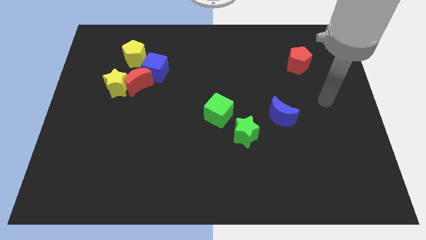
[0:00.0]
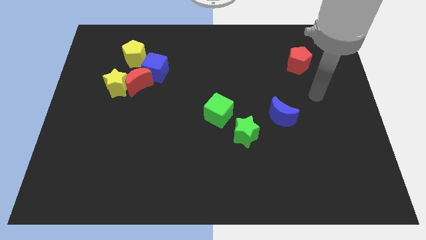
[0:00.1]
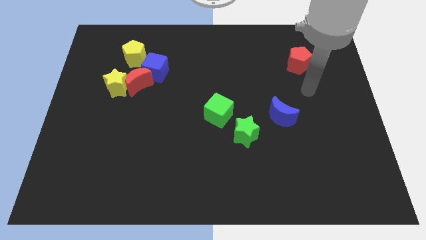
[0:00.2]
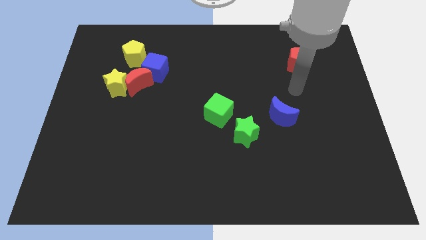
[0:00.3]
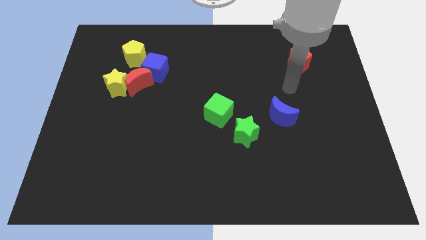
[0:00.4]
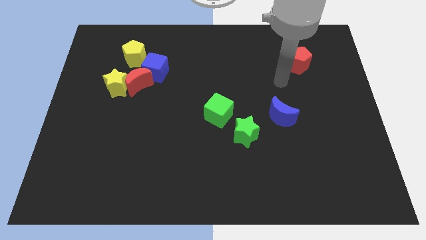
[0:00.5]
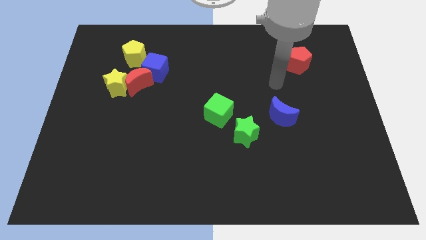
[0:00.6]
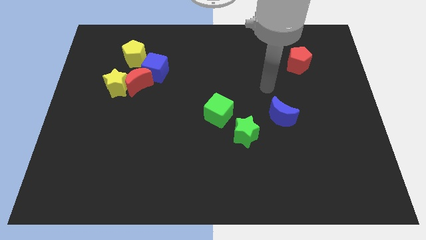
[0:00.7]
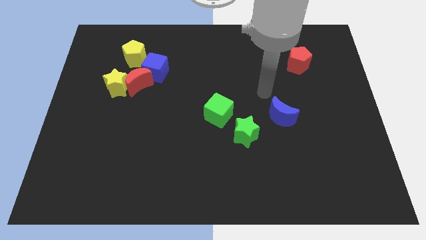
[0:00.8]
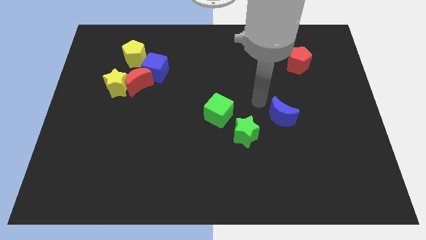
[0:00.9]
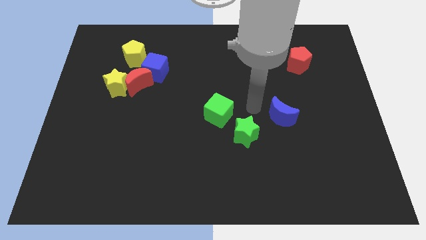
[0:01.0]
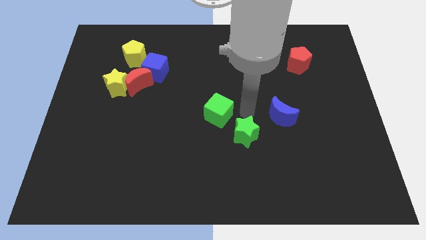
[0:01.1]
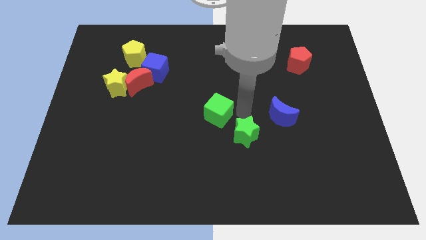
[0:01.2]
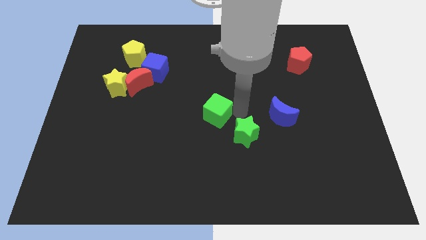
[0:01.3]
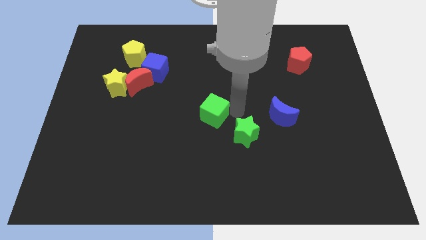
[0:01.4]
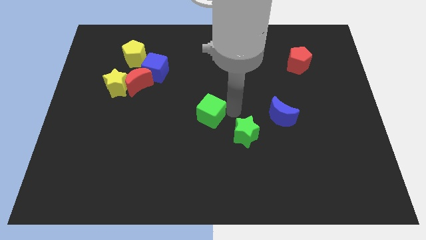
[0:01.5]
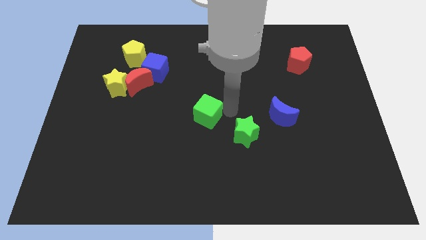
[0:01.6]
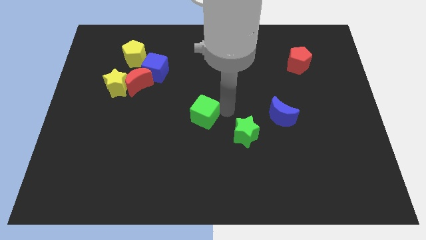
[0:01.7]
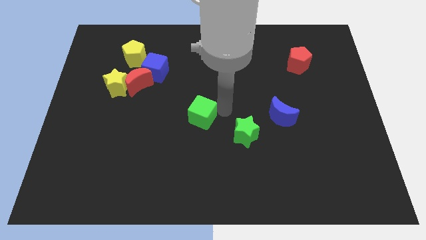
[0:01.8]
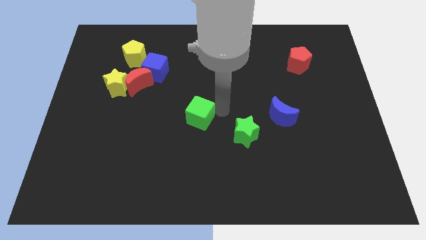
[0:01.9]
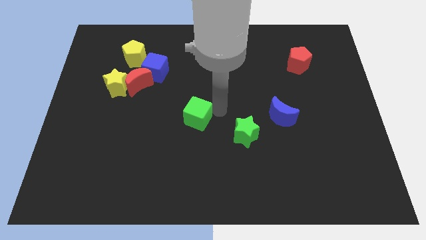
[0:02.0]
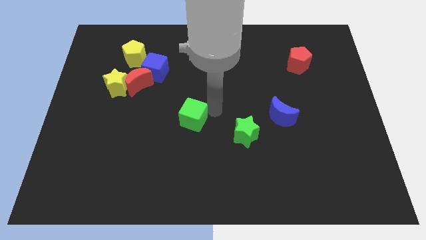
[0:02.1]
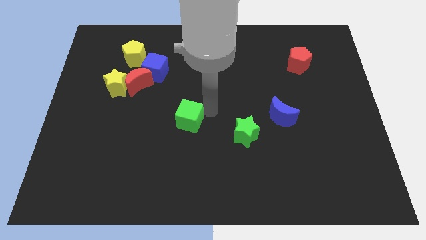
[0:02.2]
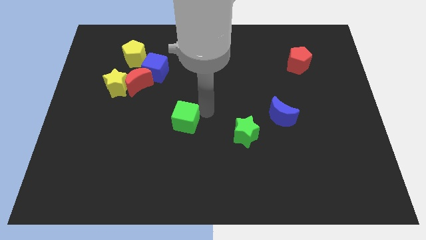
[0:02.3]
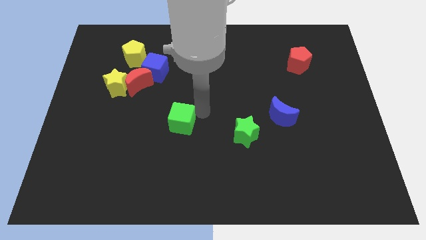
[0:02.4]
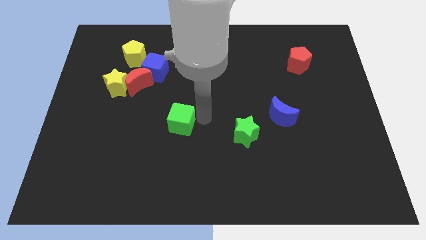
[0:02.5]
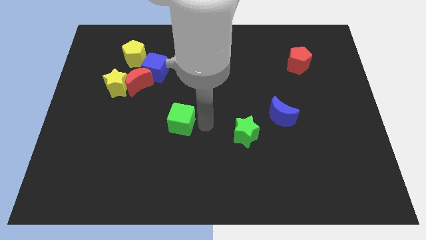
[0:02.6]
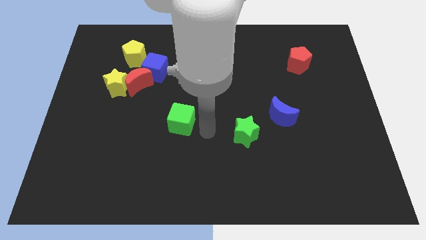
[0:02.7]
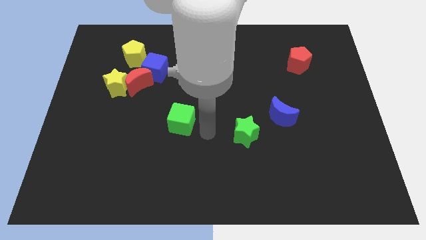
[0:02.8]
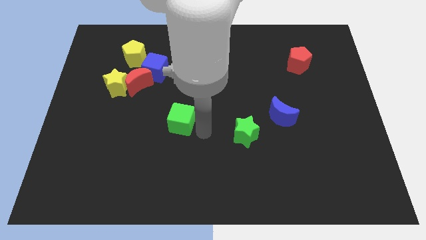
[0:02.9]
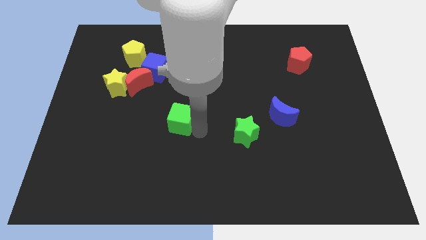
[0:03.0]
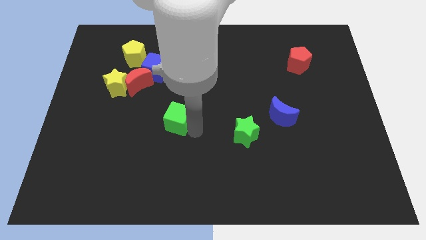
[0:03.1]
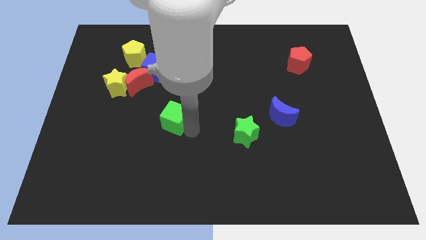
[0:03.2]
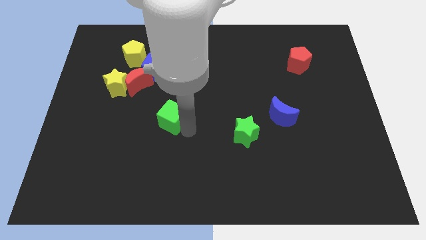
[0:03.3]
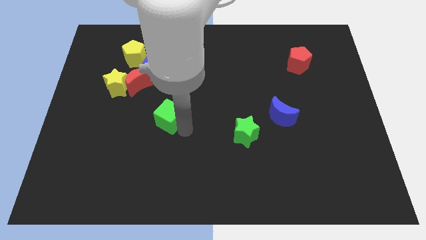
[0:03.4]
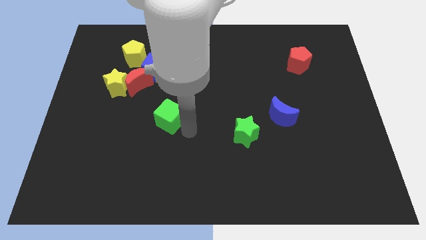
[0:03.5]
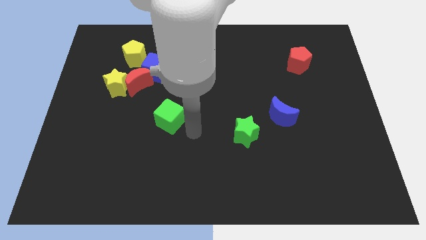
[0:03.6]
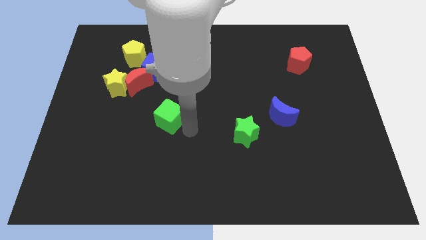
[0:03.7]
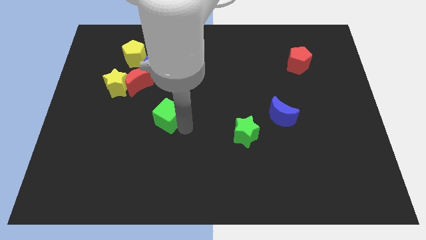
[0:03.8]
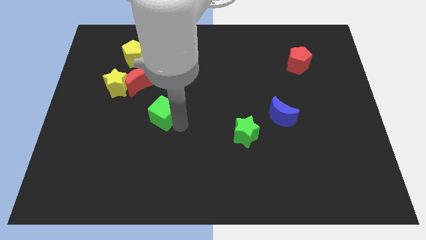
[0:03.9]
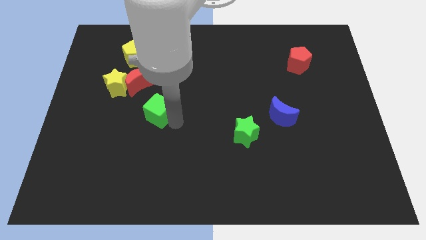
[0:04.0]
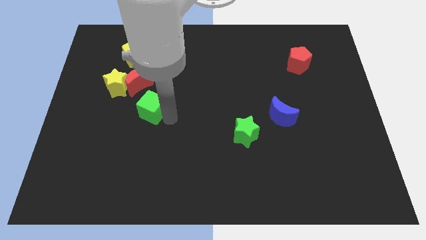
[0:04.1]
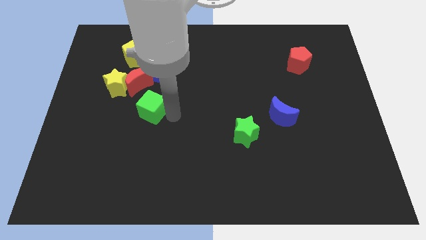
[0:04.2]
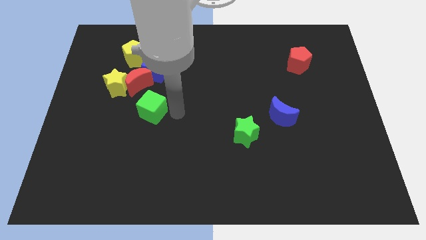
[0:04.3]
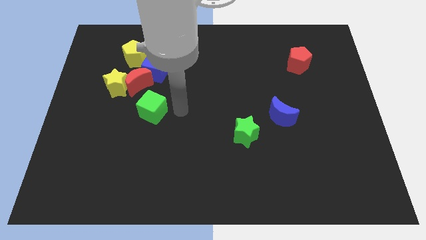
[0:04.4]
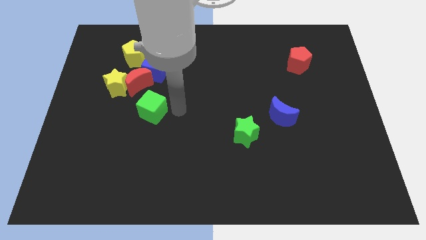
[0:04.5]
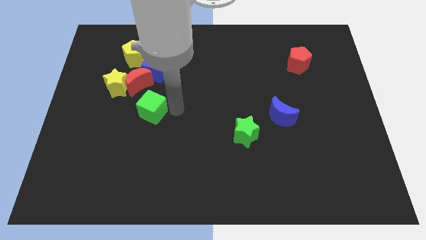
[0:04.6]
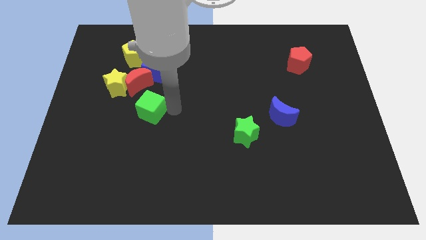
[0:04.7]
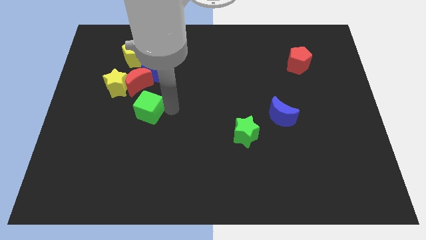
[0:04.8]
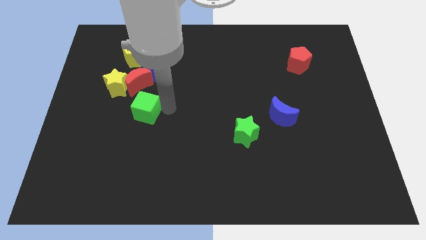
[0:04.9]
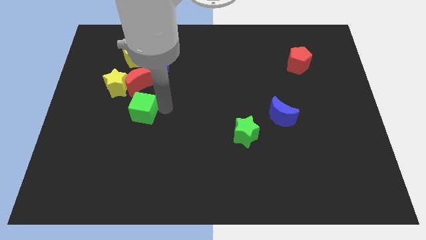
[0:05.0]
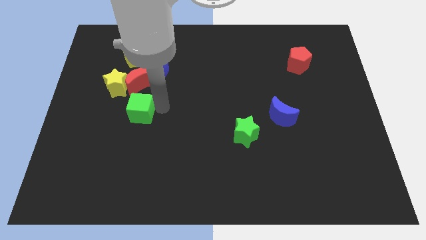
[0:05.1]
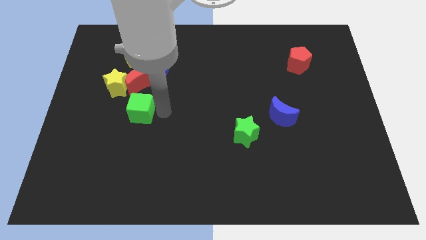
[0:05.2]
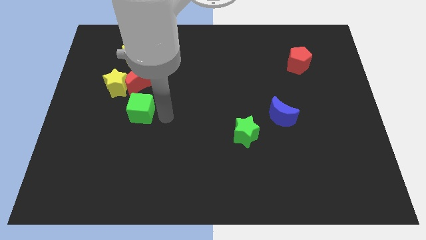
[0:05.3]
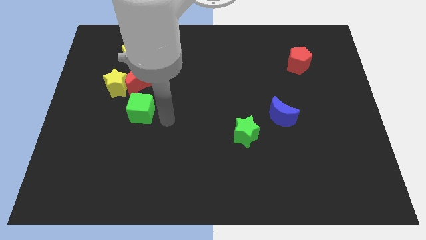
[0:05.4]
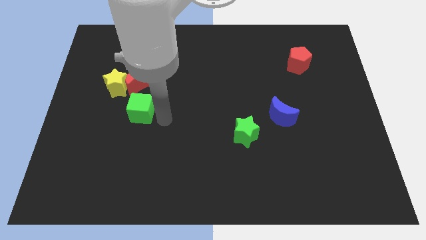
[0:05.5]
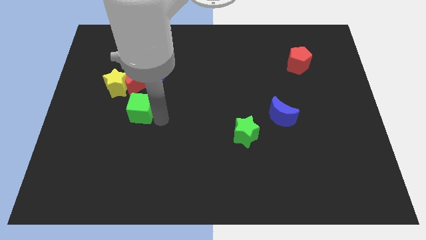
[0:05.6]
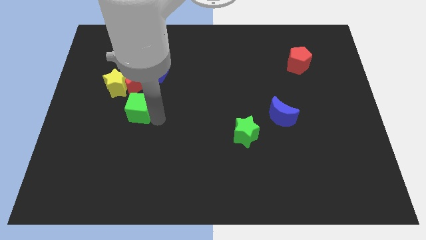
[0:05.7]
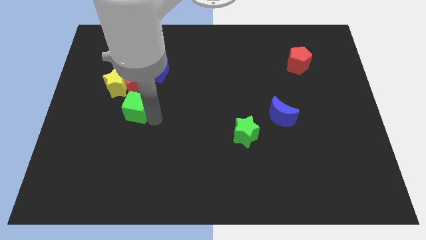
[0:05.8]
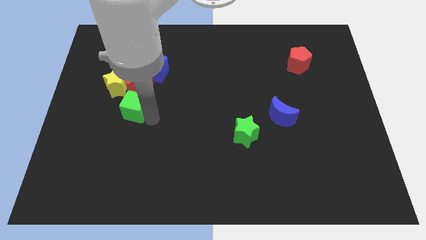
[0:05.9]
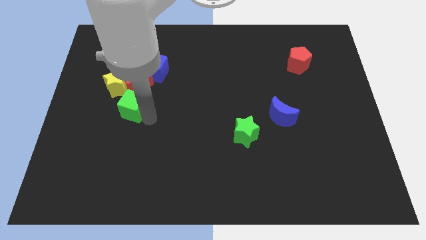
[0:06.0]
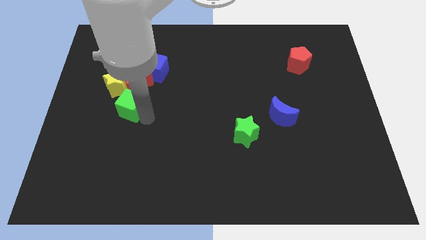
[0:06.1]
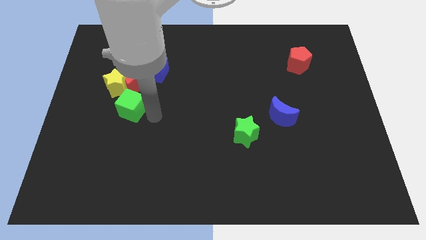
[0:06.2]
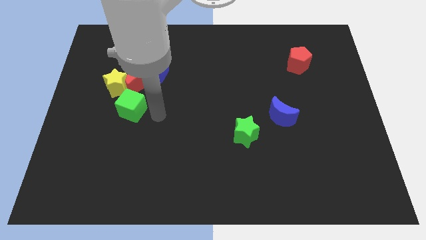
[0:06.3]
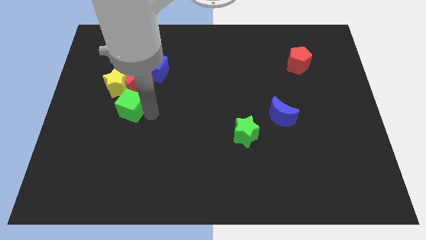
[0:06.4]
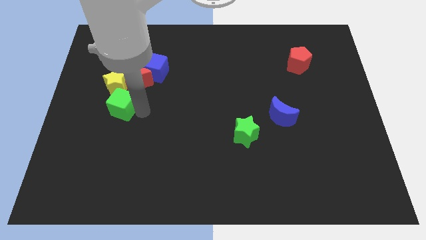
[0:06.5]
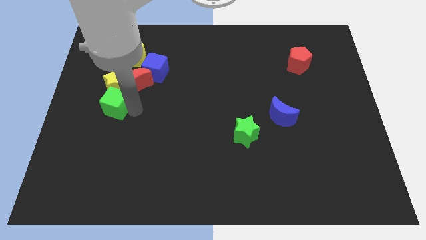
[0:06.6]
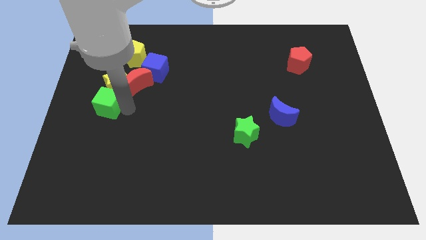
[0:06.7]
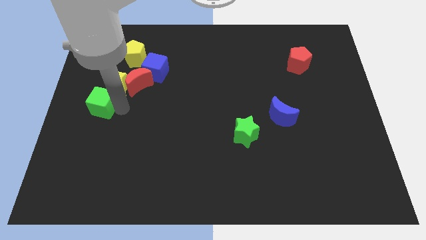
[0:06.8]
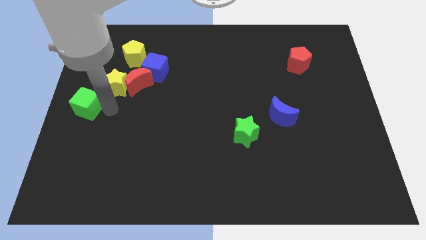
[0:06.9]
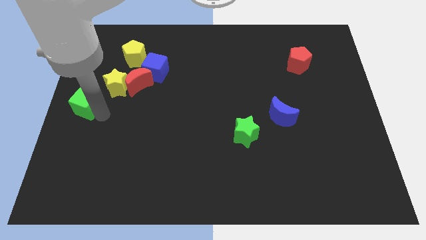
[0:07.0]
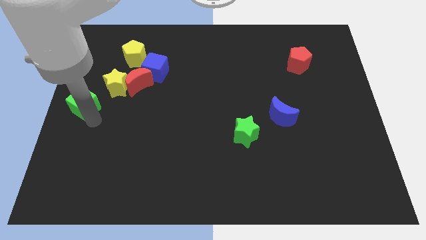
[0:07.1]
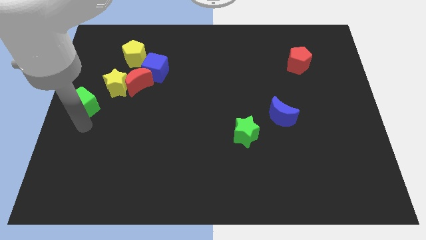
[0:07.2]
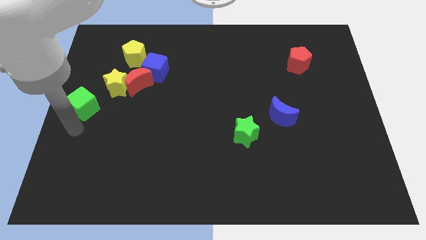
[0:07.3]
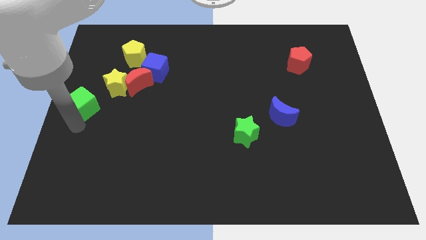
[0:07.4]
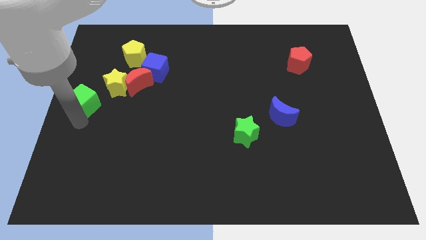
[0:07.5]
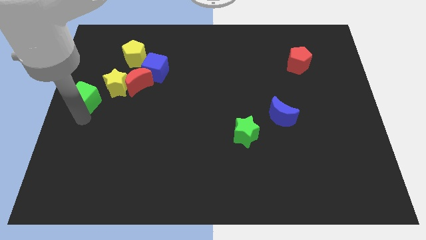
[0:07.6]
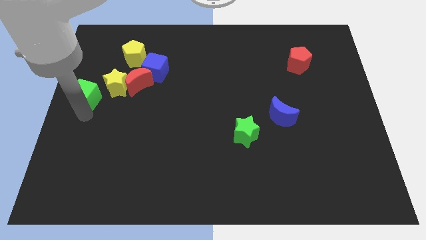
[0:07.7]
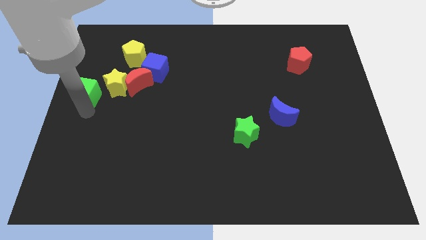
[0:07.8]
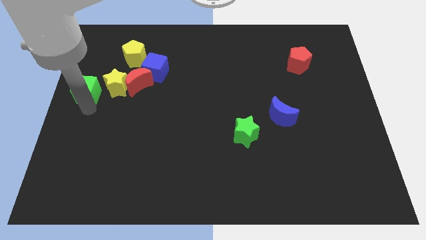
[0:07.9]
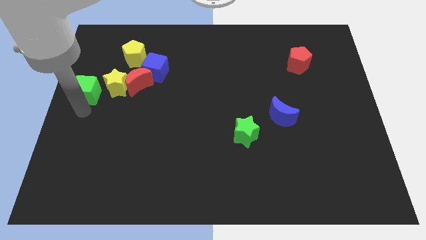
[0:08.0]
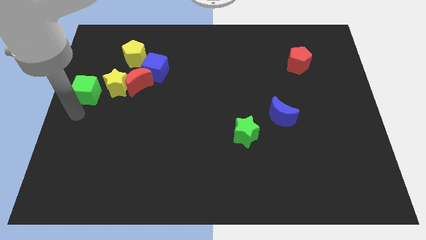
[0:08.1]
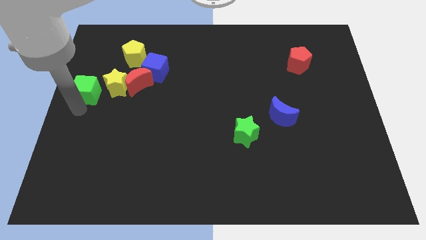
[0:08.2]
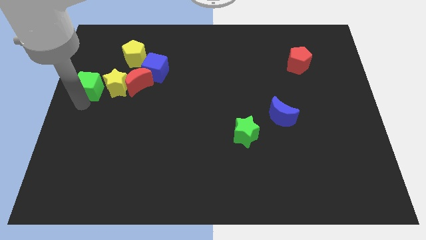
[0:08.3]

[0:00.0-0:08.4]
put the green cube to the top left of the yellow star
